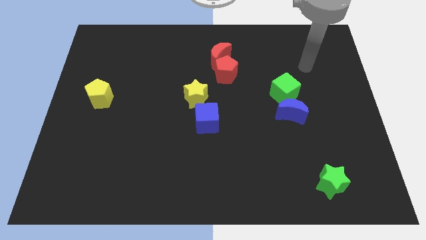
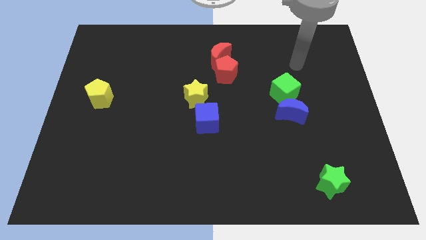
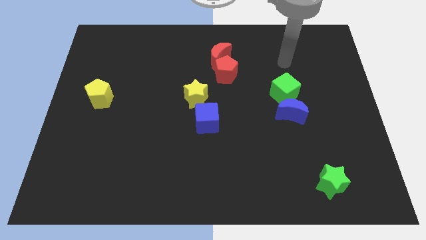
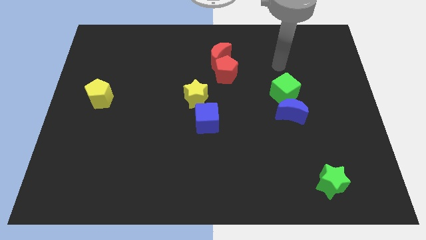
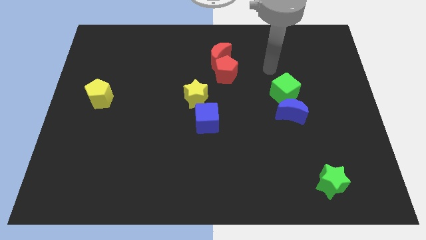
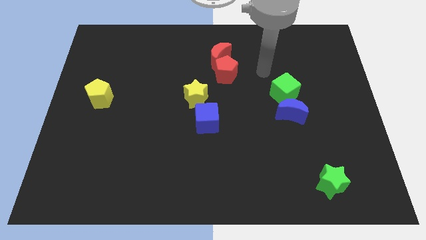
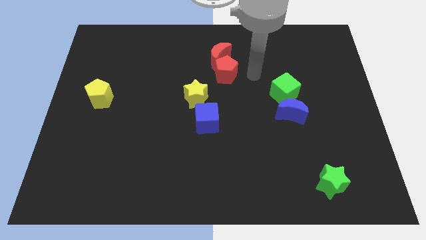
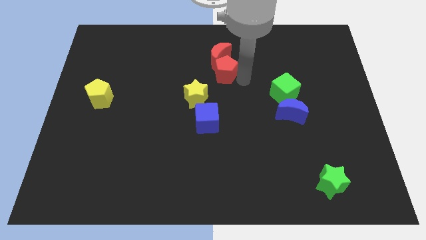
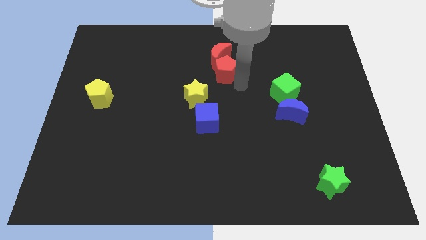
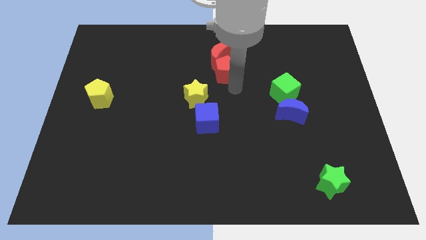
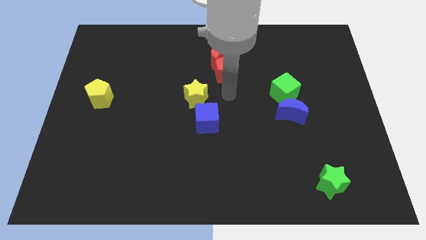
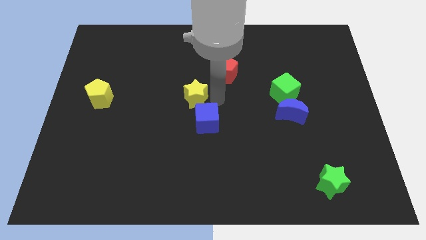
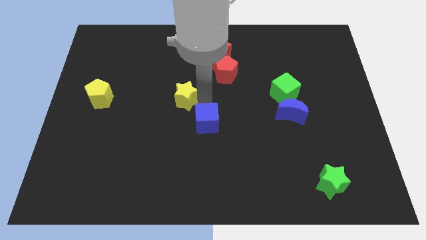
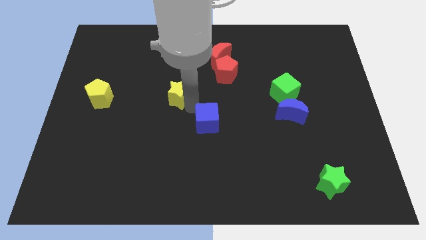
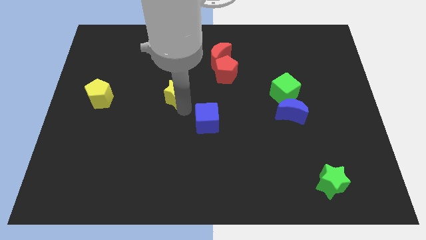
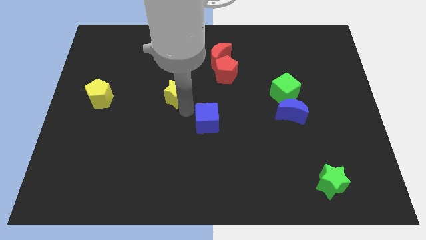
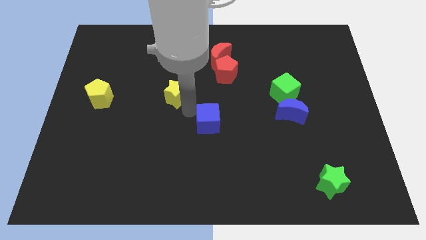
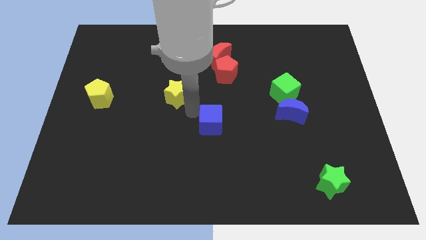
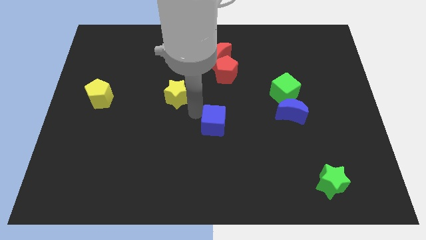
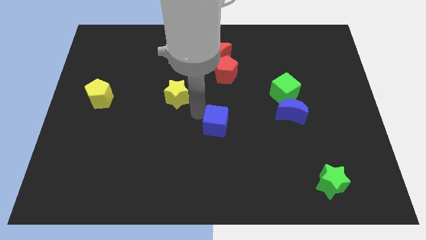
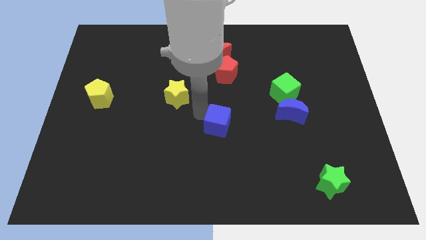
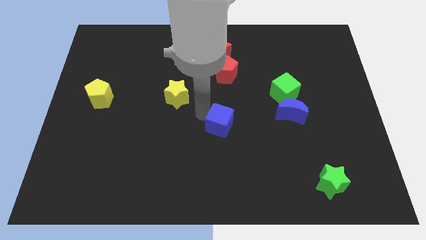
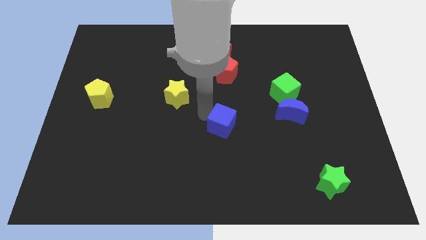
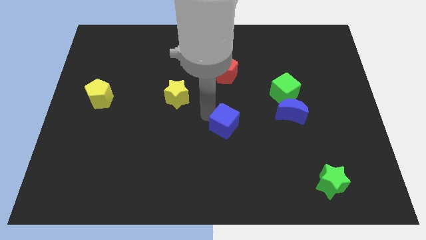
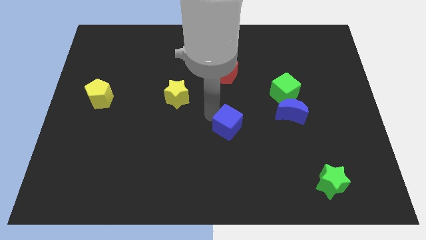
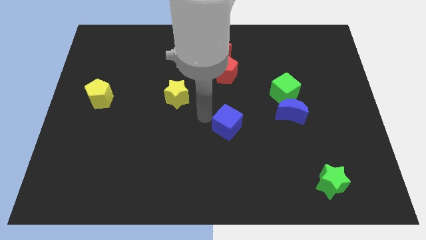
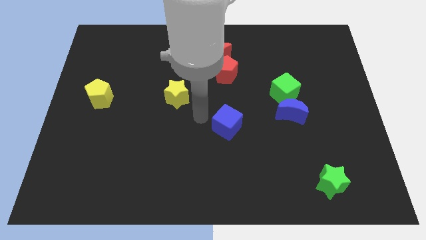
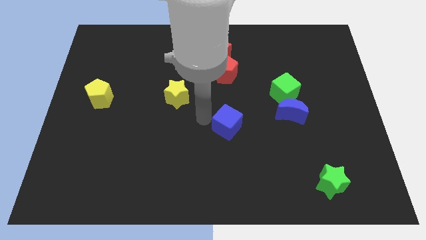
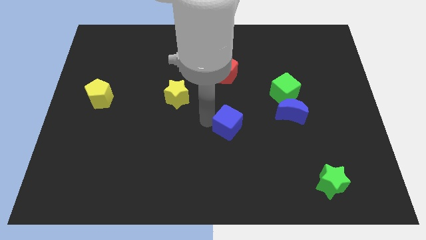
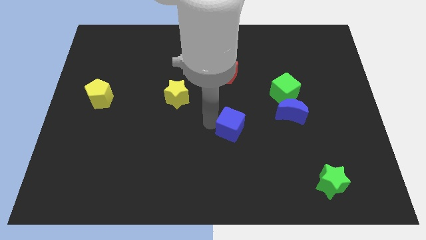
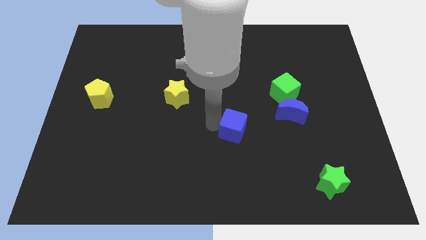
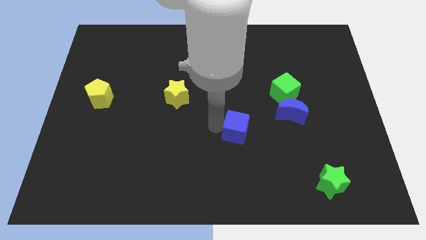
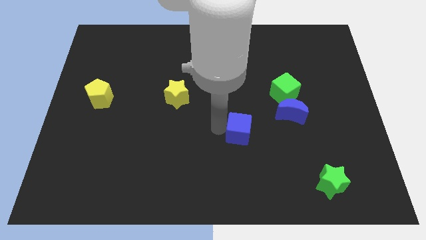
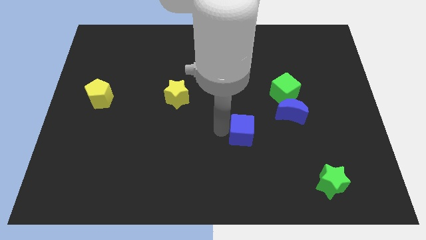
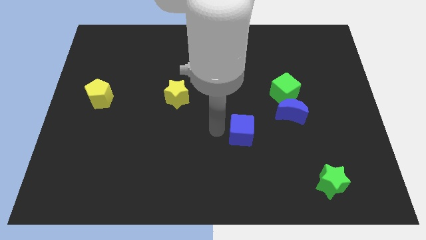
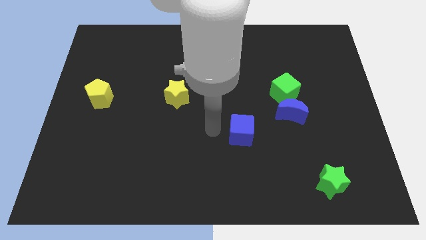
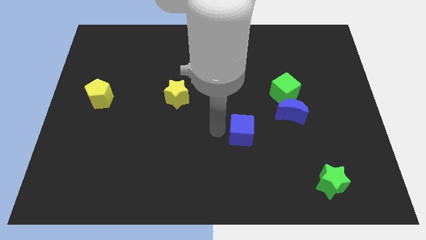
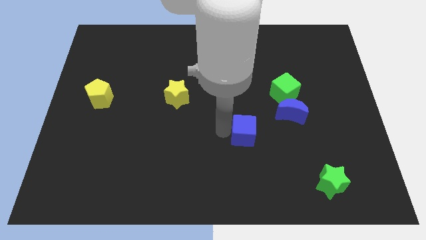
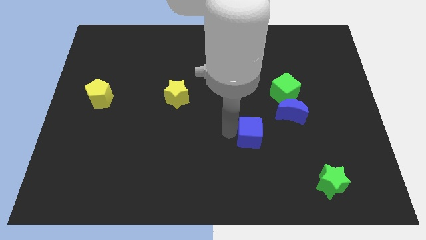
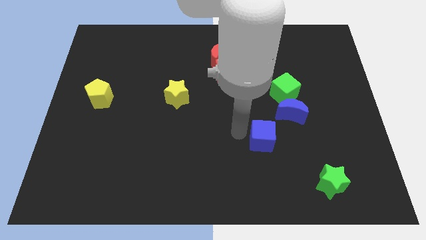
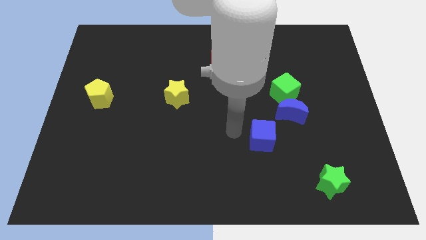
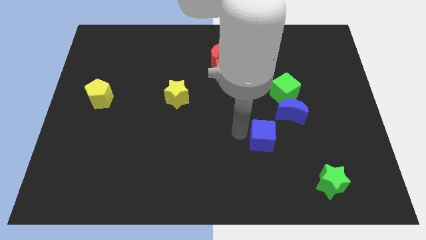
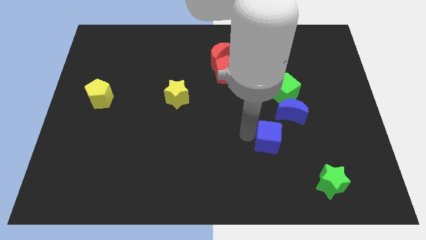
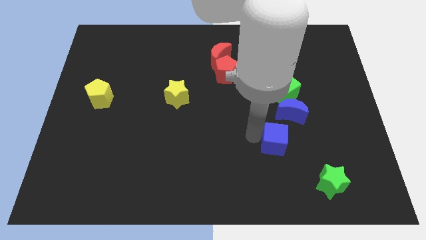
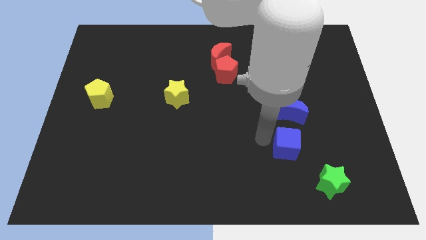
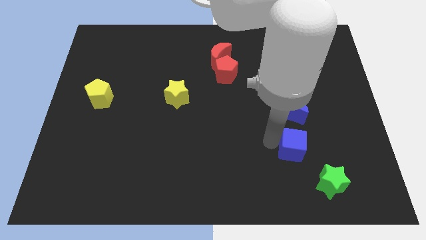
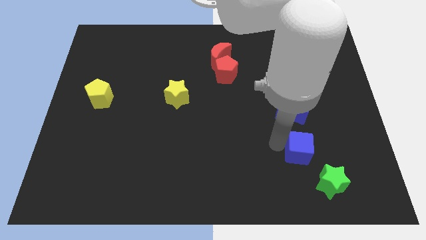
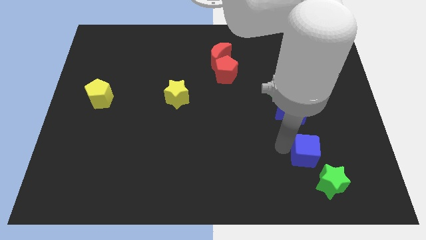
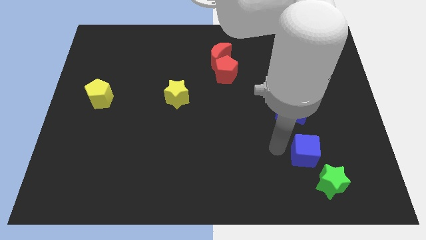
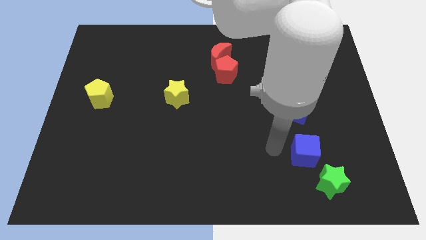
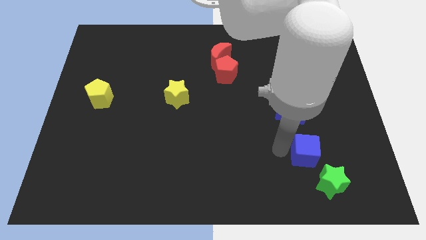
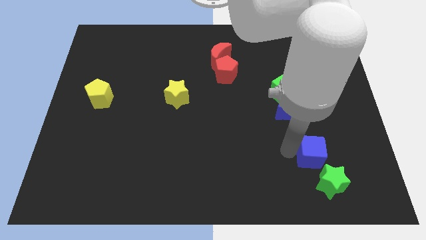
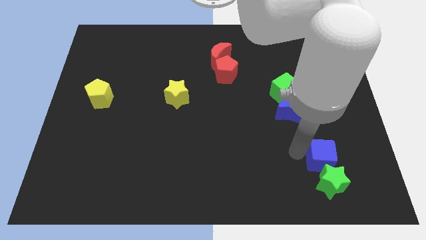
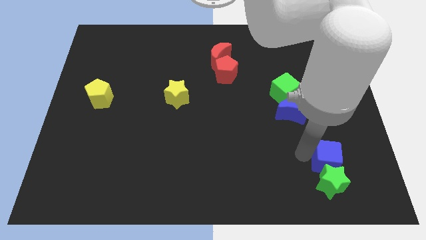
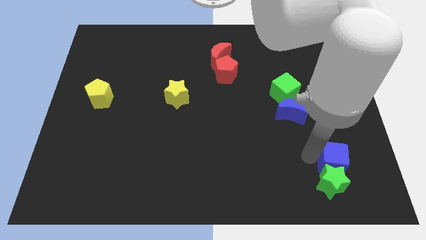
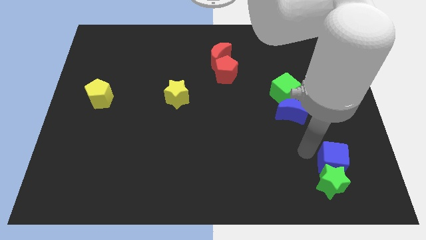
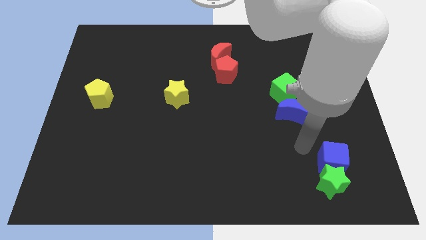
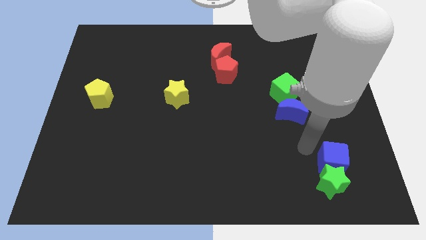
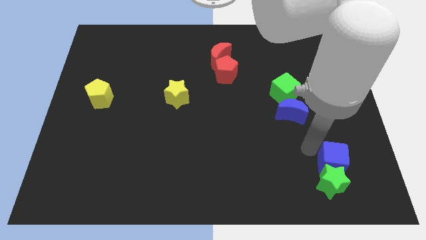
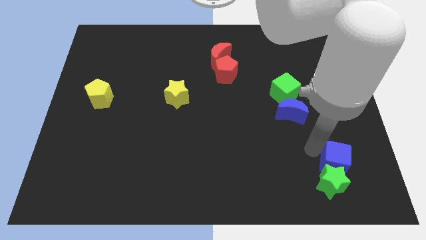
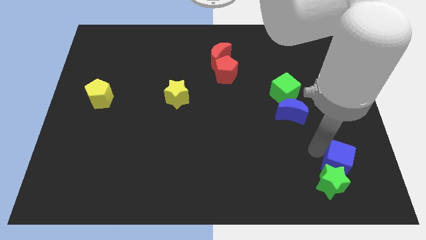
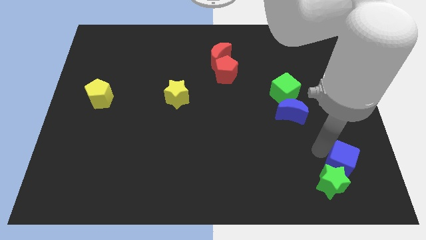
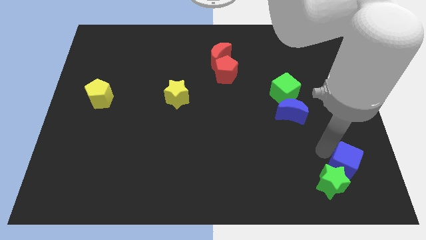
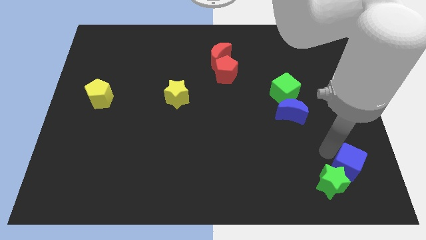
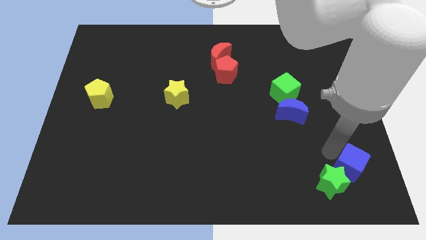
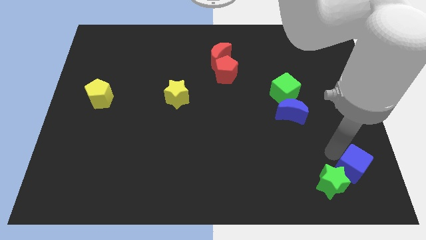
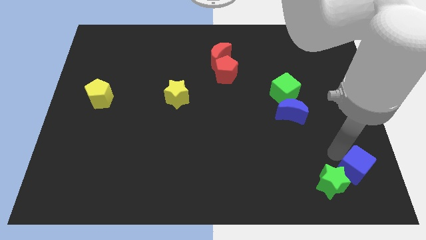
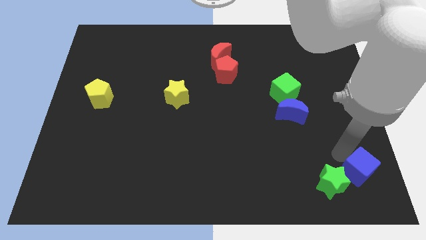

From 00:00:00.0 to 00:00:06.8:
move the blue cube to the bottom right of the board

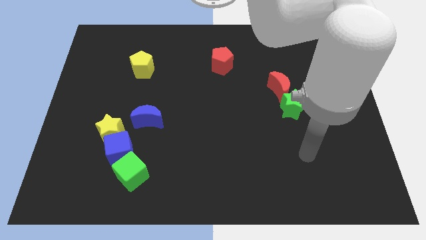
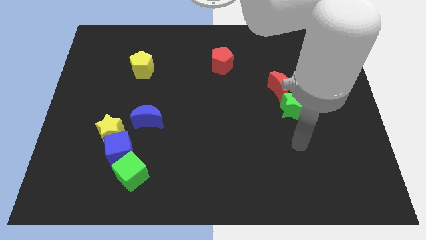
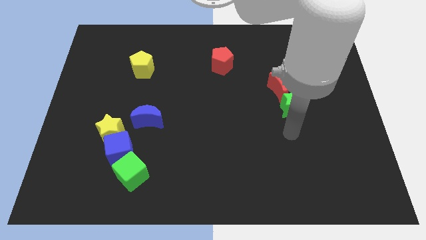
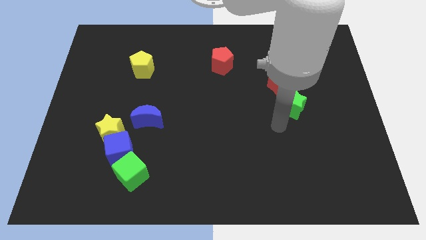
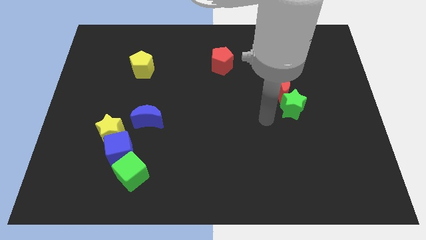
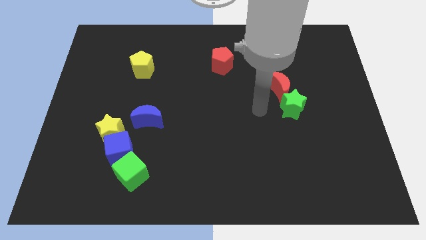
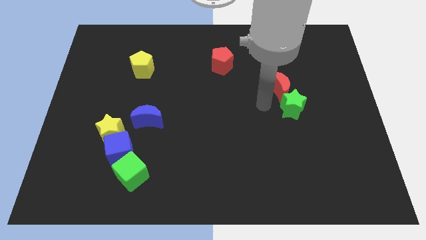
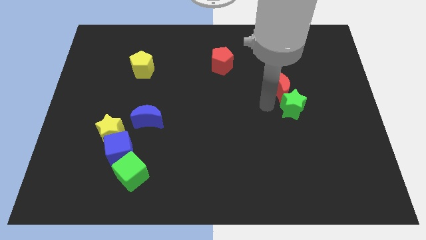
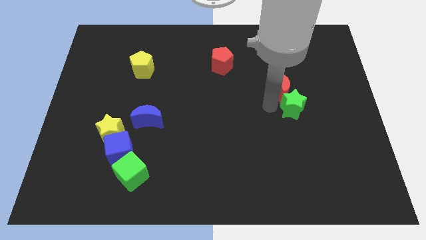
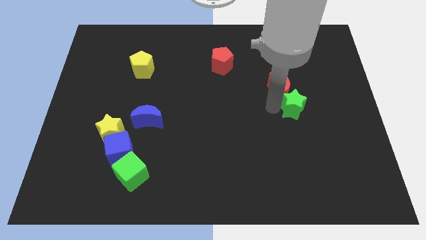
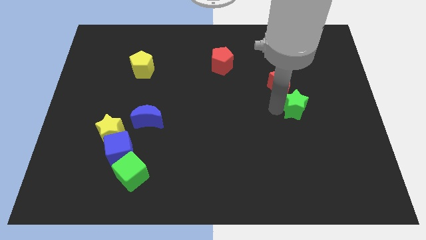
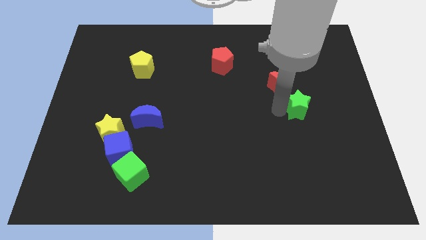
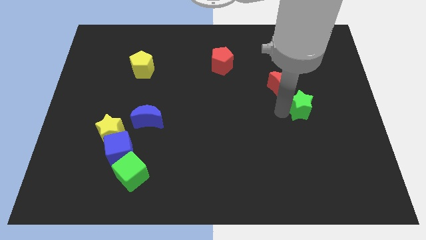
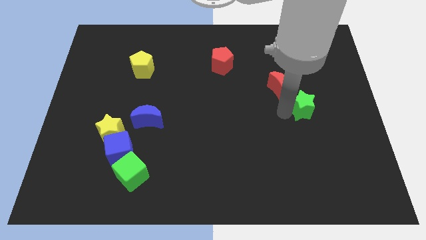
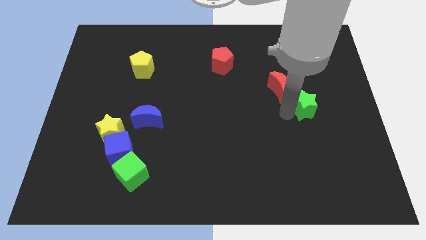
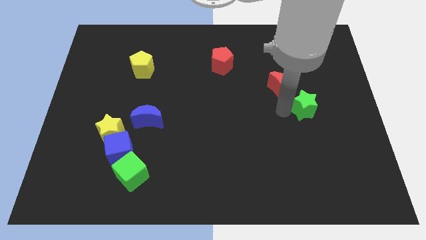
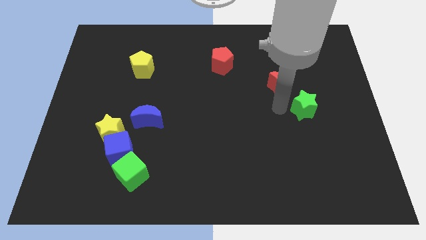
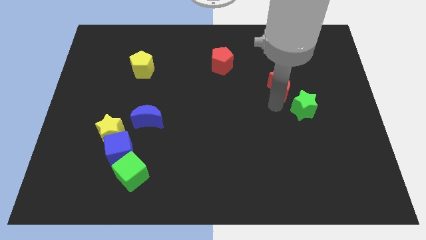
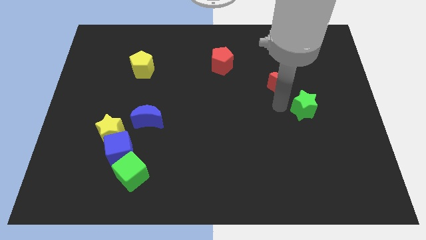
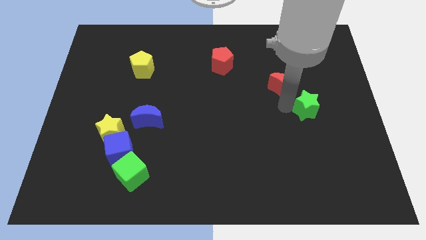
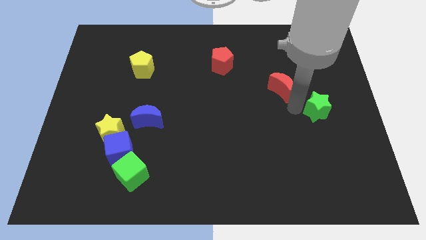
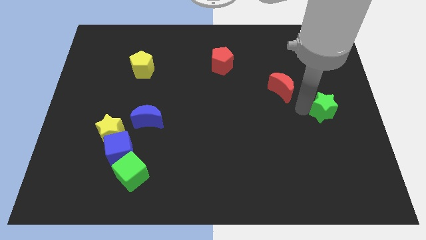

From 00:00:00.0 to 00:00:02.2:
push the green star to the right side of the board
